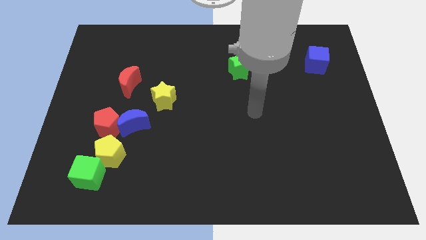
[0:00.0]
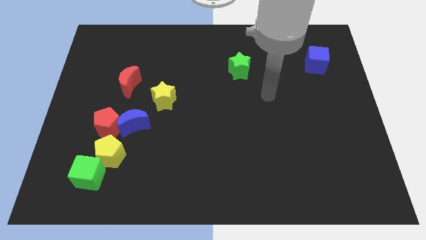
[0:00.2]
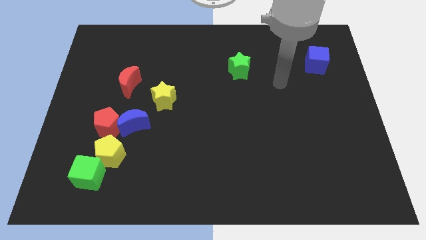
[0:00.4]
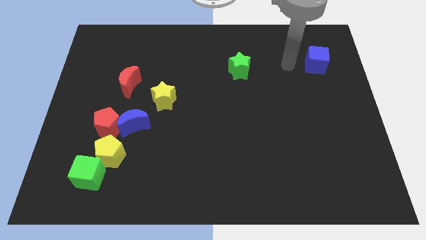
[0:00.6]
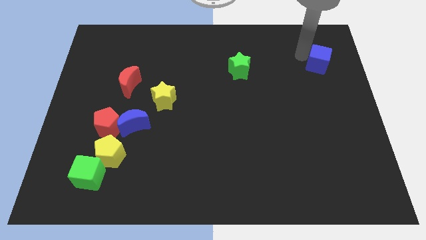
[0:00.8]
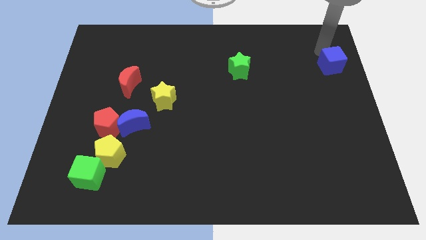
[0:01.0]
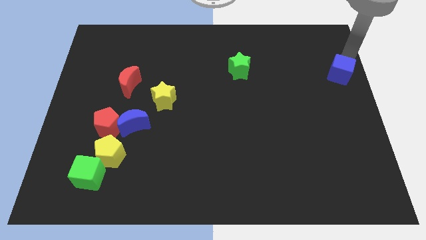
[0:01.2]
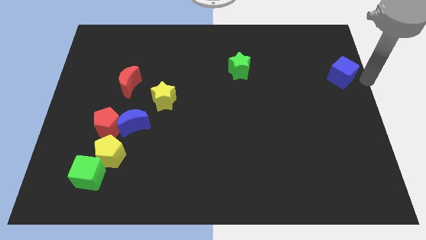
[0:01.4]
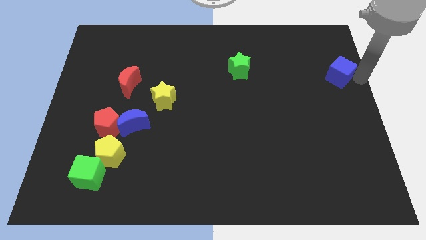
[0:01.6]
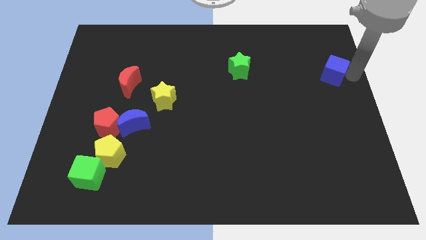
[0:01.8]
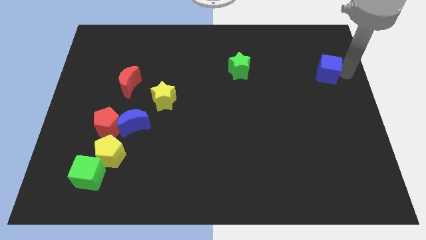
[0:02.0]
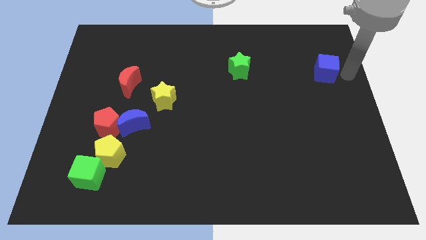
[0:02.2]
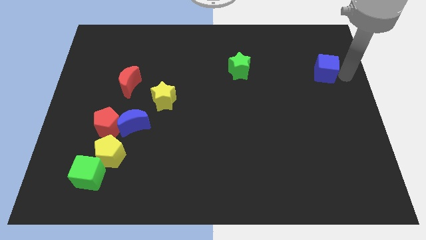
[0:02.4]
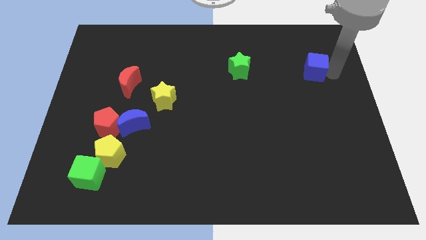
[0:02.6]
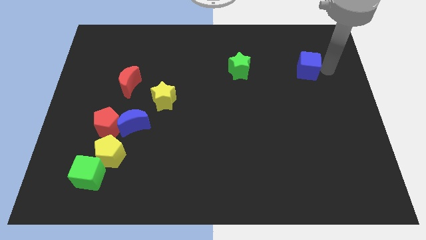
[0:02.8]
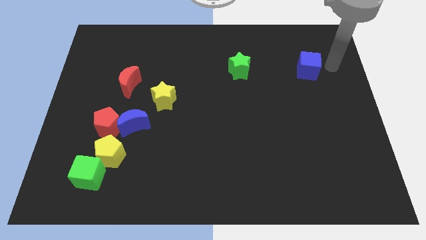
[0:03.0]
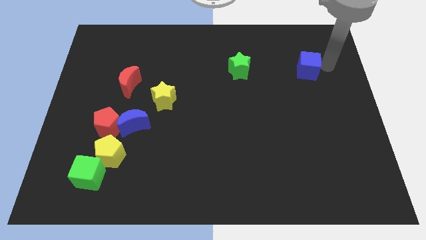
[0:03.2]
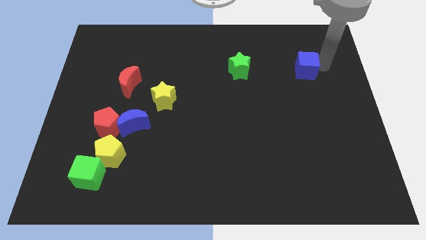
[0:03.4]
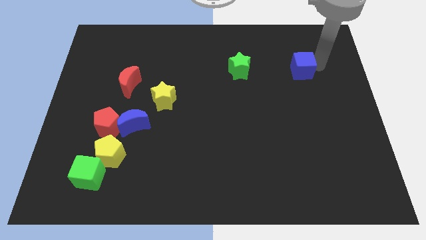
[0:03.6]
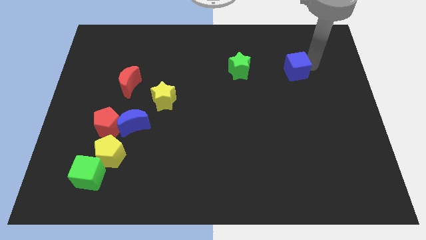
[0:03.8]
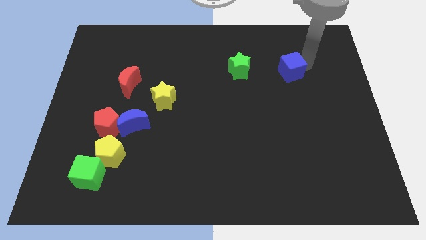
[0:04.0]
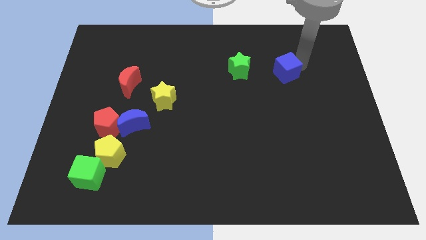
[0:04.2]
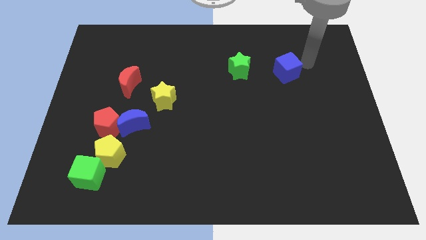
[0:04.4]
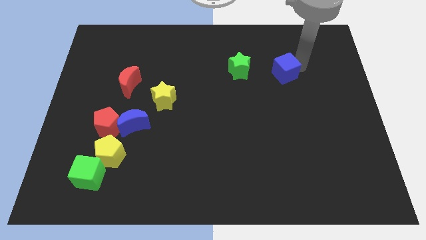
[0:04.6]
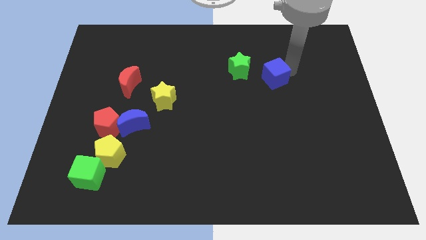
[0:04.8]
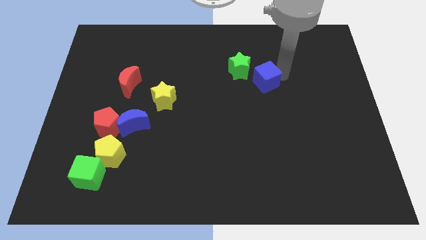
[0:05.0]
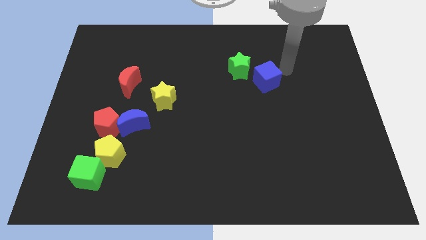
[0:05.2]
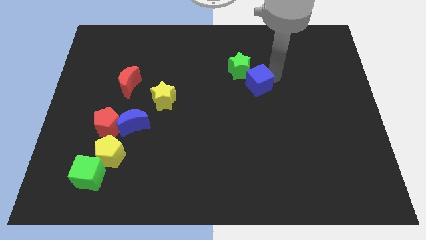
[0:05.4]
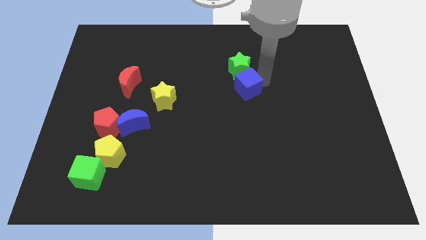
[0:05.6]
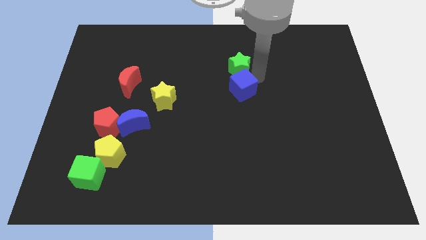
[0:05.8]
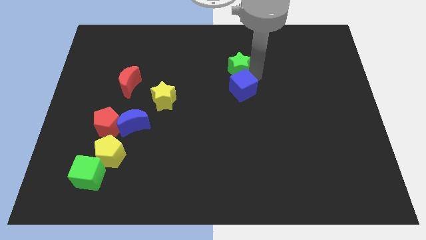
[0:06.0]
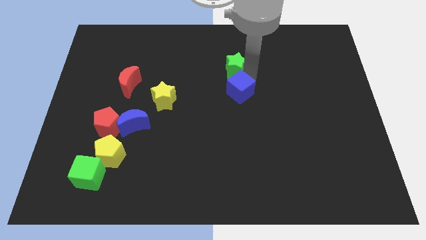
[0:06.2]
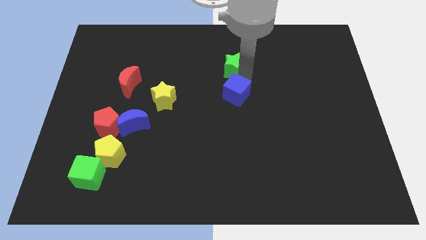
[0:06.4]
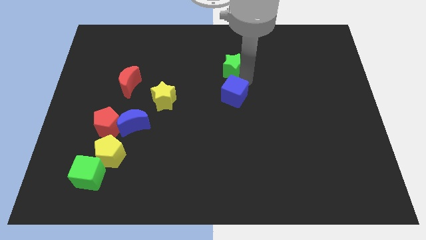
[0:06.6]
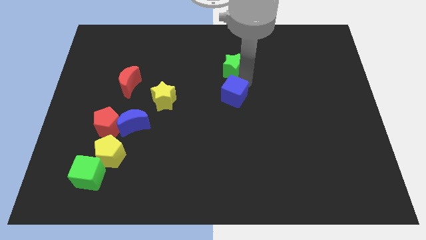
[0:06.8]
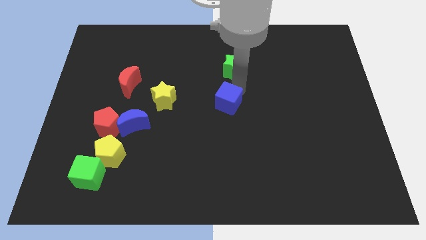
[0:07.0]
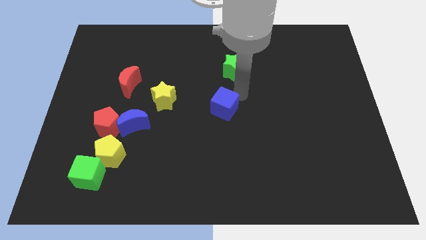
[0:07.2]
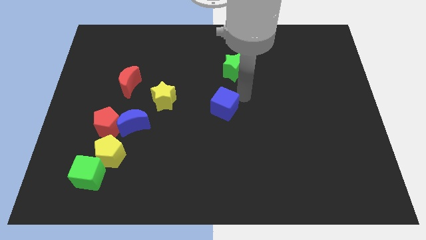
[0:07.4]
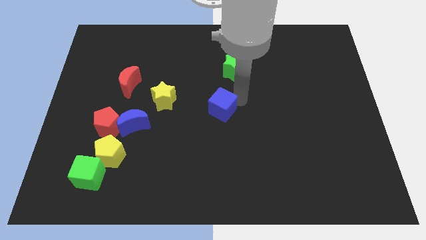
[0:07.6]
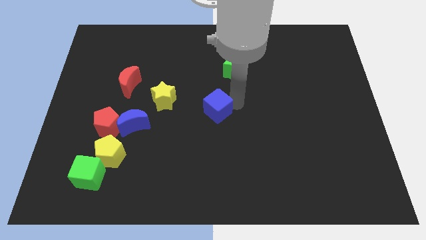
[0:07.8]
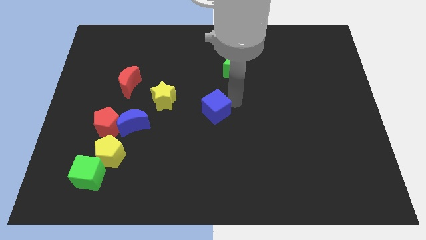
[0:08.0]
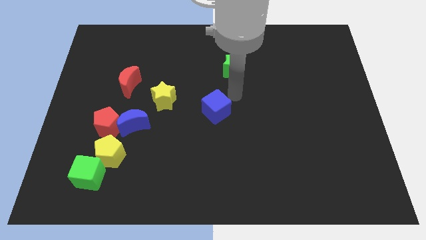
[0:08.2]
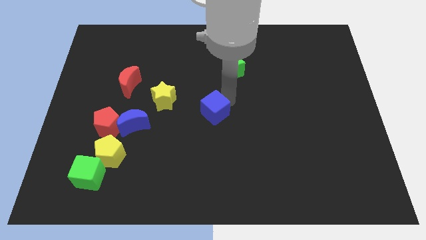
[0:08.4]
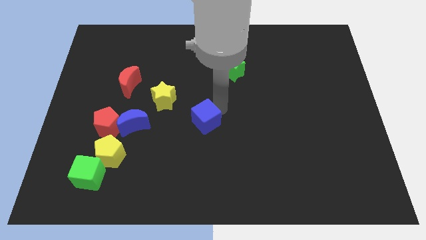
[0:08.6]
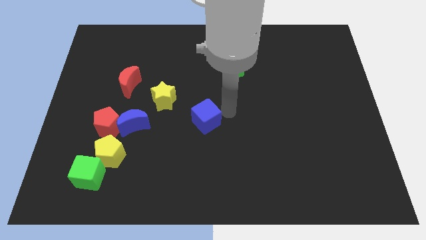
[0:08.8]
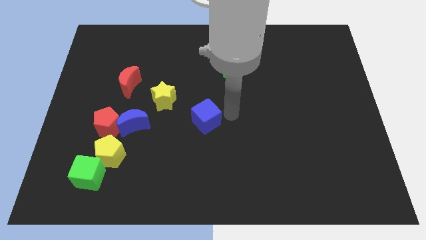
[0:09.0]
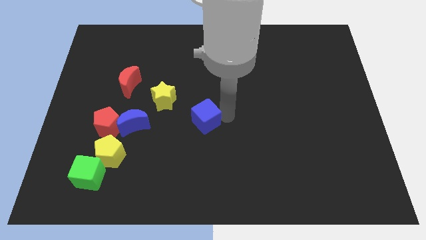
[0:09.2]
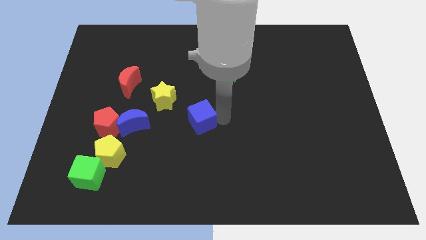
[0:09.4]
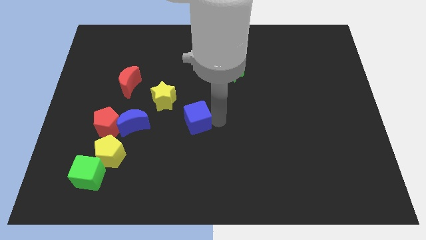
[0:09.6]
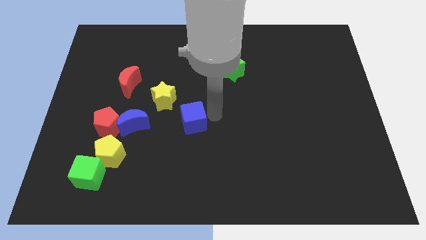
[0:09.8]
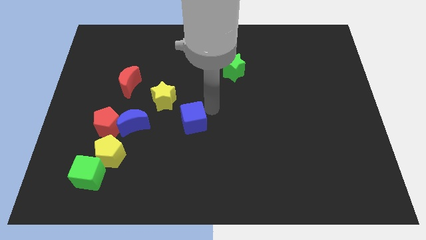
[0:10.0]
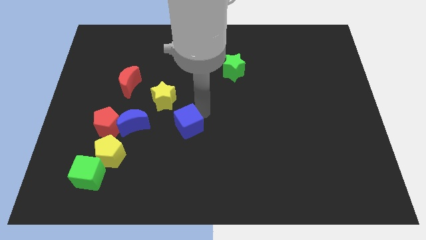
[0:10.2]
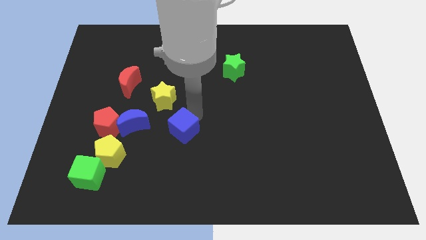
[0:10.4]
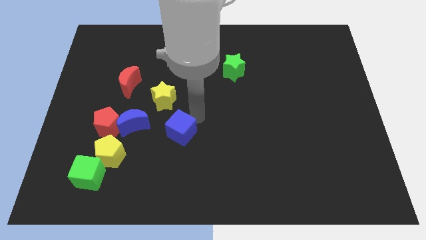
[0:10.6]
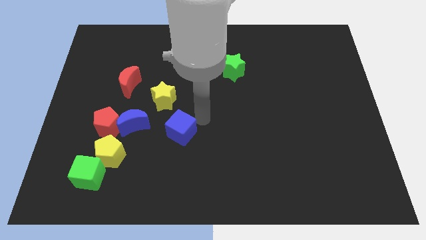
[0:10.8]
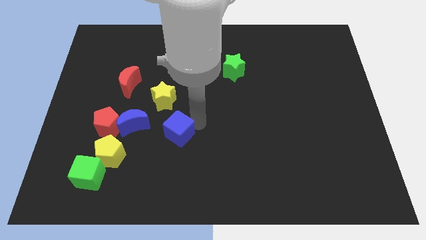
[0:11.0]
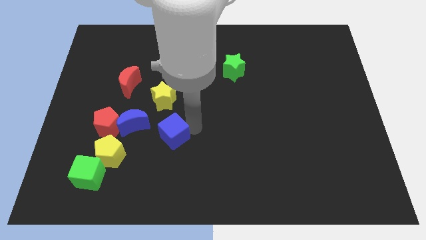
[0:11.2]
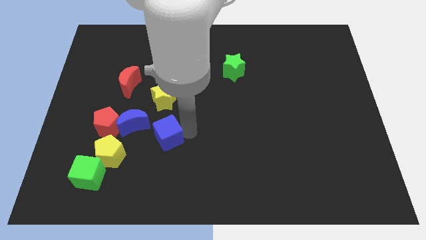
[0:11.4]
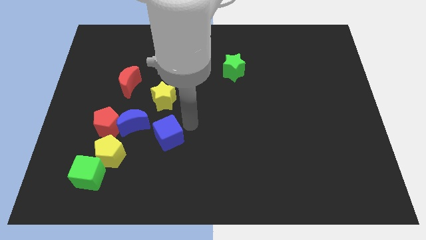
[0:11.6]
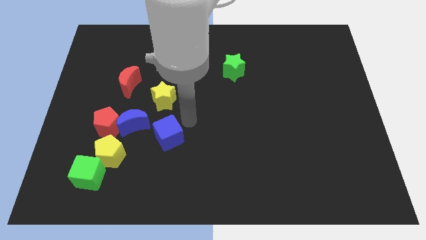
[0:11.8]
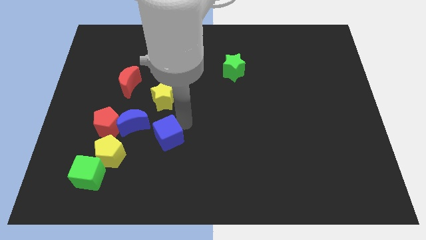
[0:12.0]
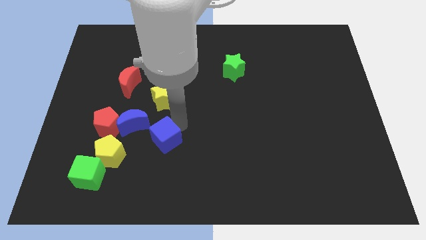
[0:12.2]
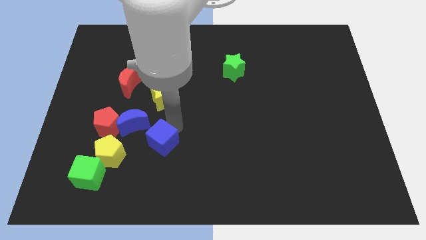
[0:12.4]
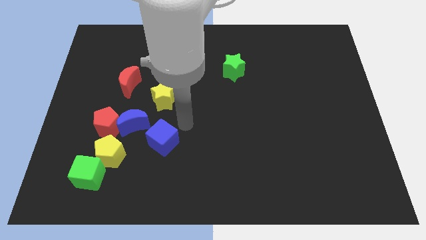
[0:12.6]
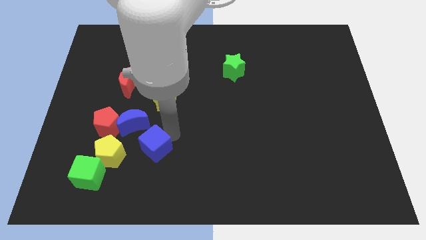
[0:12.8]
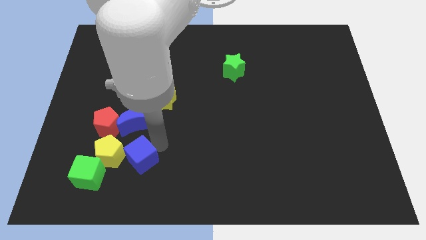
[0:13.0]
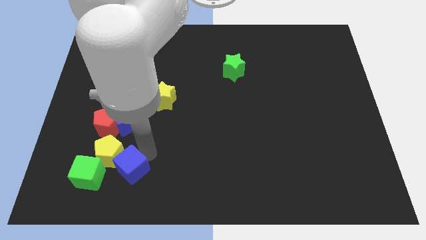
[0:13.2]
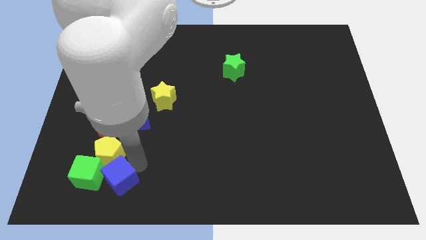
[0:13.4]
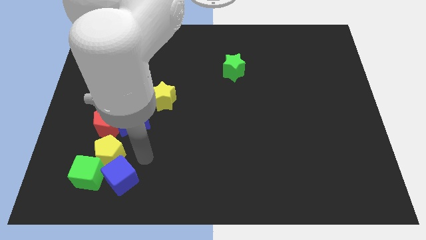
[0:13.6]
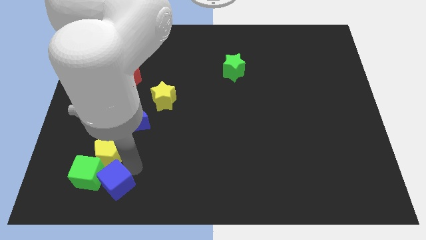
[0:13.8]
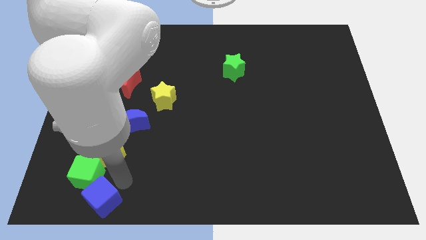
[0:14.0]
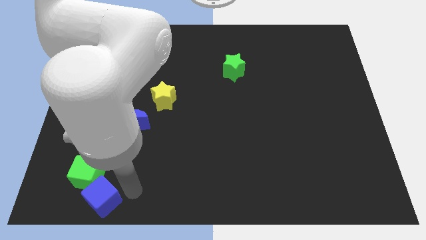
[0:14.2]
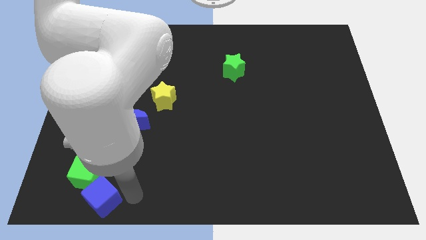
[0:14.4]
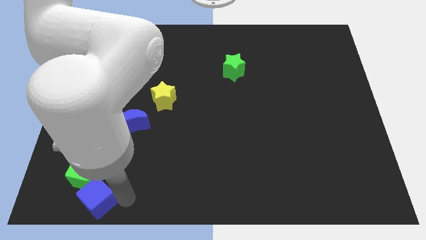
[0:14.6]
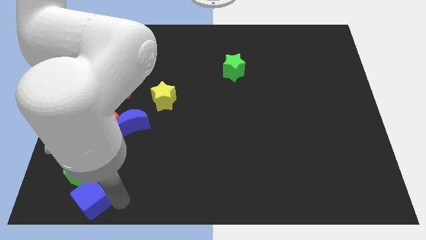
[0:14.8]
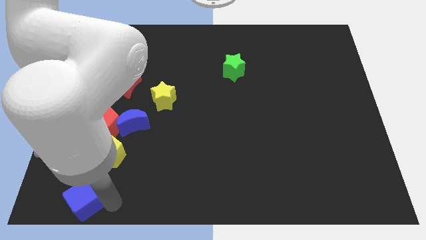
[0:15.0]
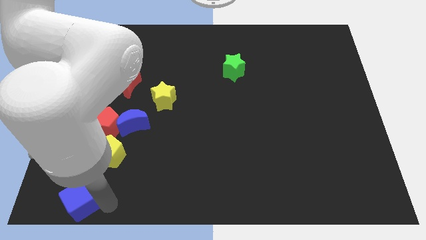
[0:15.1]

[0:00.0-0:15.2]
push the blue cube to the bottom left of the board
